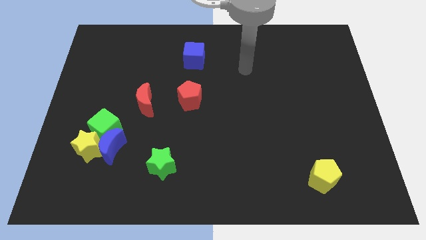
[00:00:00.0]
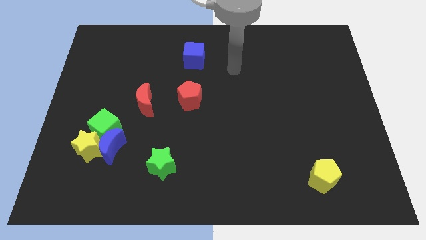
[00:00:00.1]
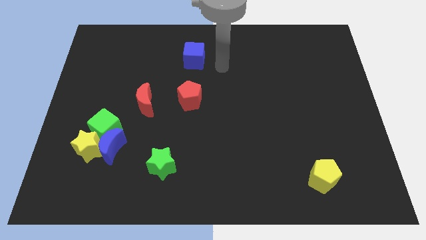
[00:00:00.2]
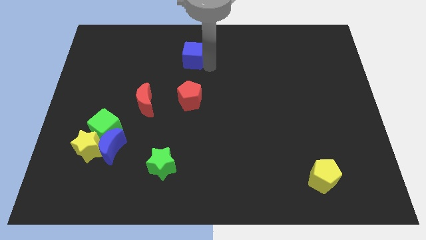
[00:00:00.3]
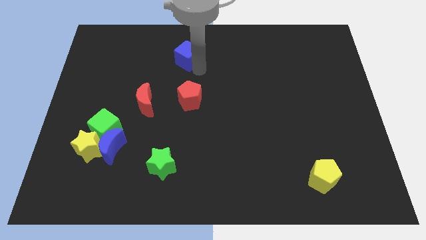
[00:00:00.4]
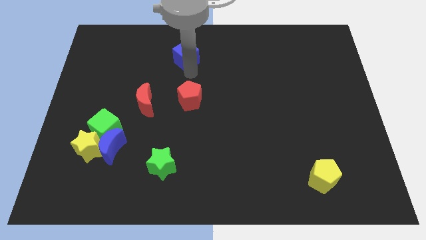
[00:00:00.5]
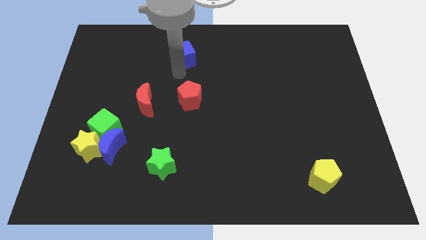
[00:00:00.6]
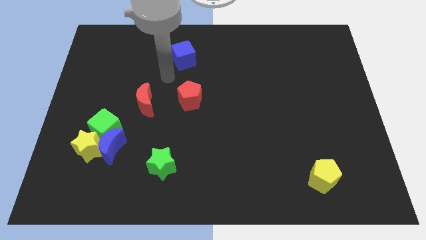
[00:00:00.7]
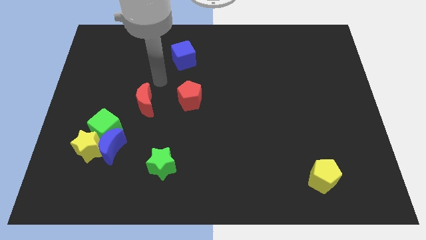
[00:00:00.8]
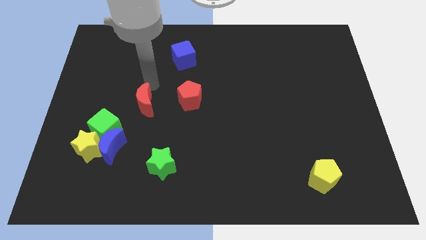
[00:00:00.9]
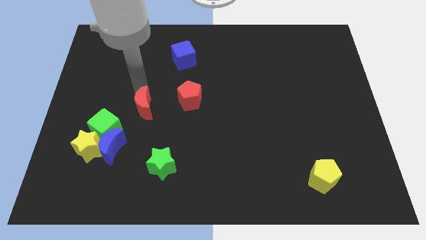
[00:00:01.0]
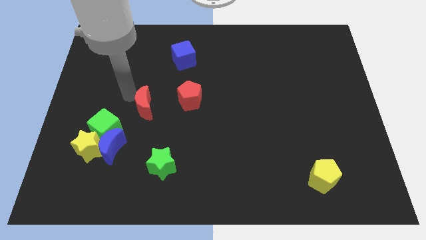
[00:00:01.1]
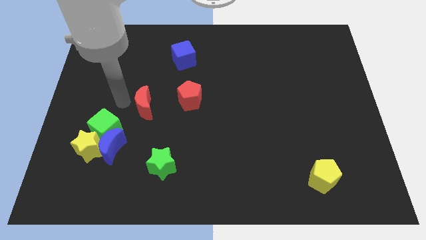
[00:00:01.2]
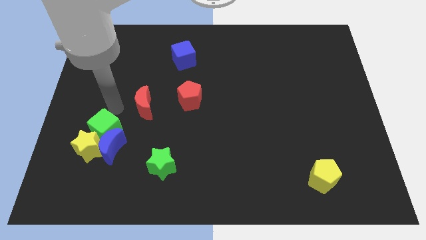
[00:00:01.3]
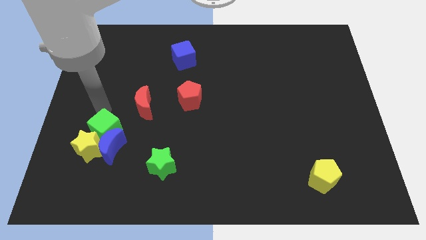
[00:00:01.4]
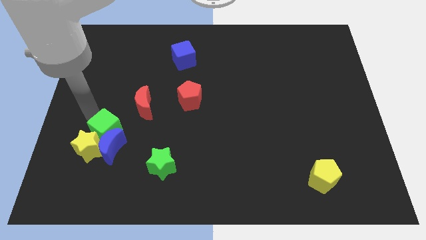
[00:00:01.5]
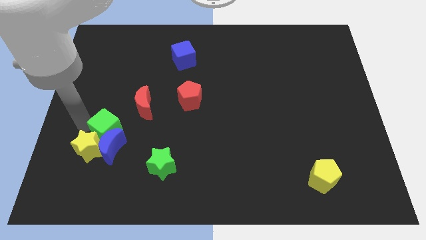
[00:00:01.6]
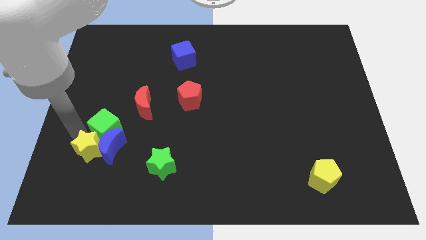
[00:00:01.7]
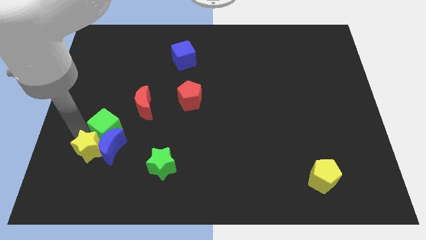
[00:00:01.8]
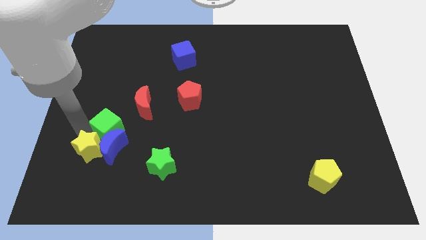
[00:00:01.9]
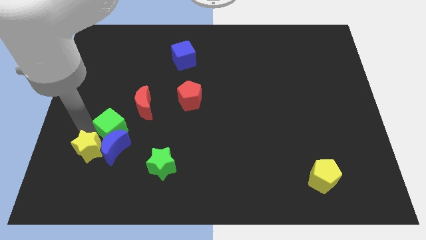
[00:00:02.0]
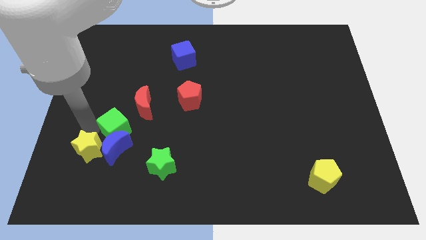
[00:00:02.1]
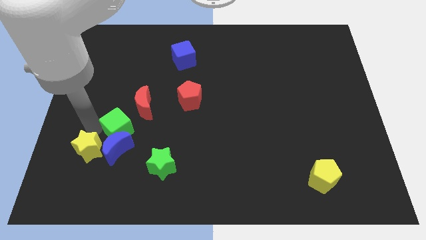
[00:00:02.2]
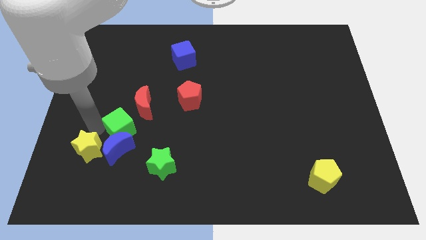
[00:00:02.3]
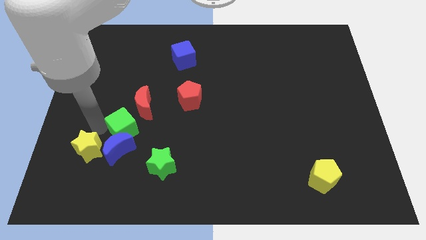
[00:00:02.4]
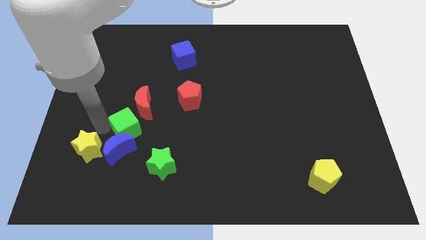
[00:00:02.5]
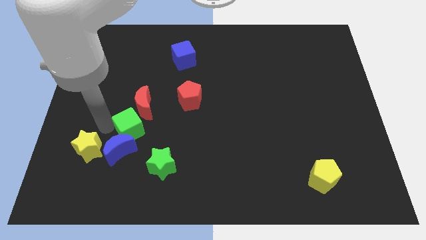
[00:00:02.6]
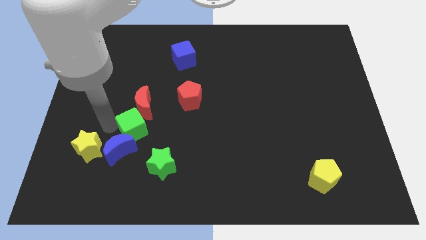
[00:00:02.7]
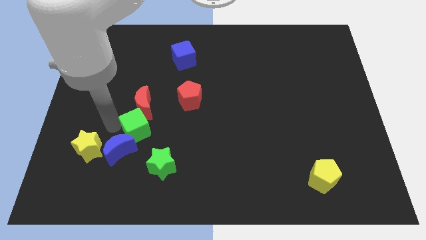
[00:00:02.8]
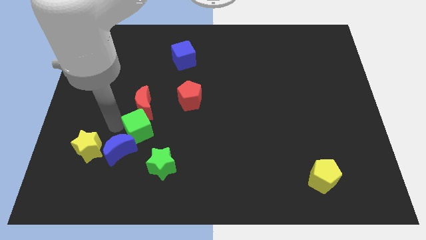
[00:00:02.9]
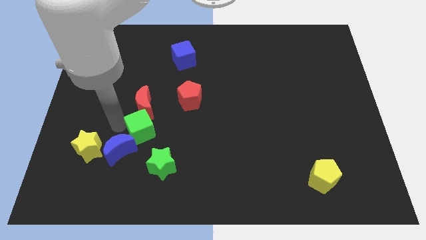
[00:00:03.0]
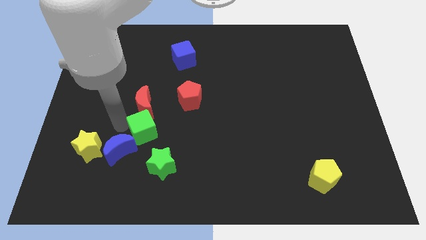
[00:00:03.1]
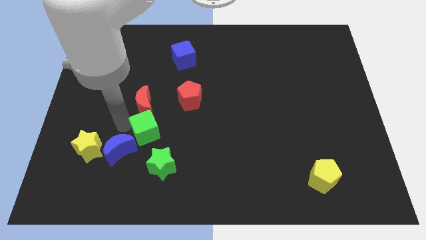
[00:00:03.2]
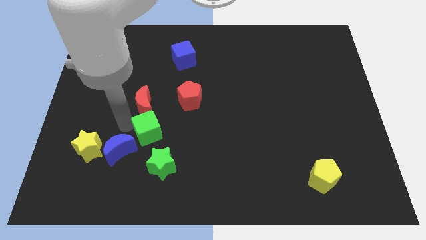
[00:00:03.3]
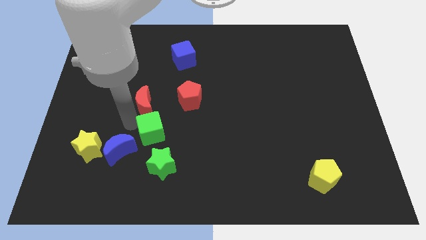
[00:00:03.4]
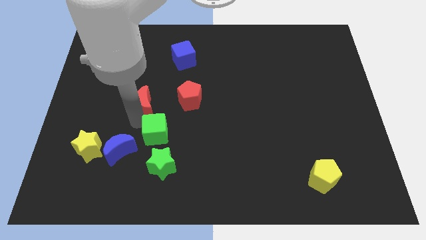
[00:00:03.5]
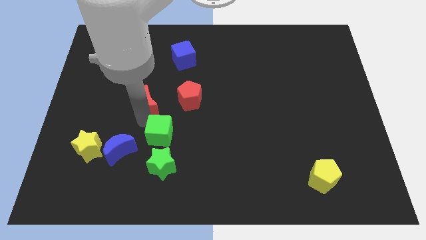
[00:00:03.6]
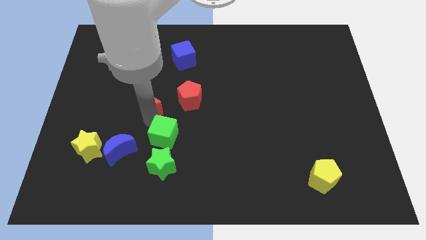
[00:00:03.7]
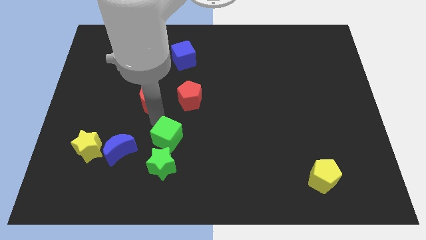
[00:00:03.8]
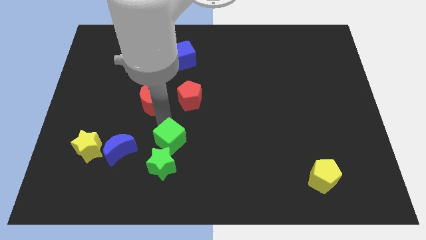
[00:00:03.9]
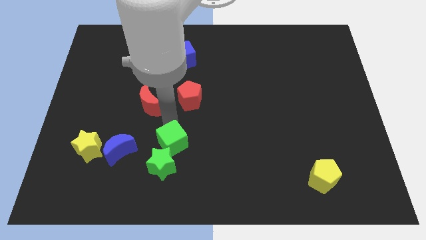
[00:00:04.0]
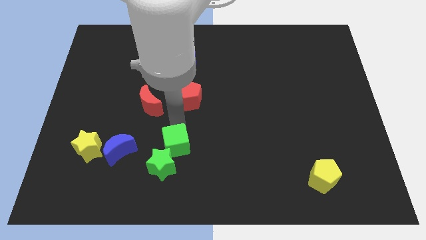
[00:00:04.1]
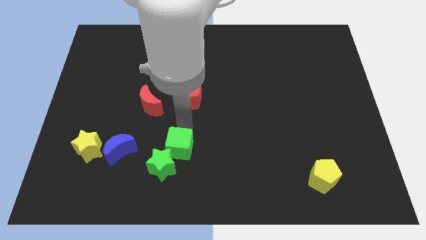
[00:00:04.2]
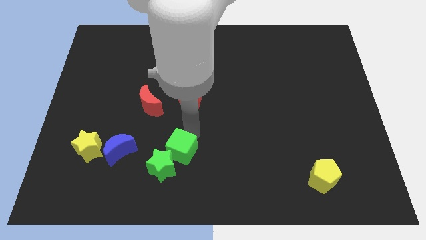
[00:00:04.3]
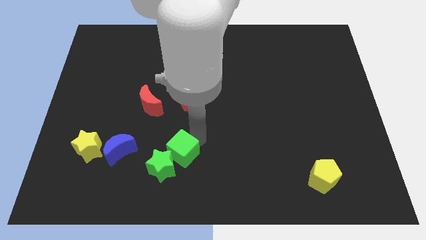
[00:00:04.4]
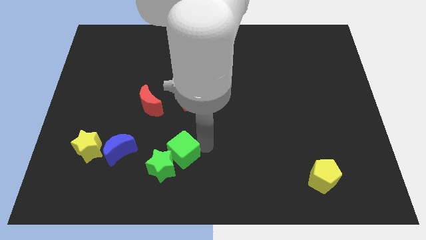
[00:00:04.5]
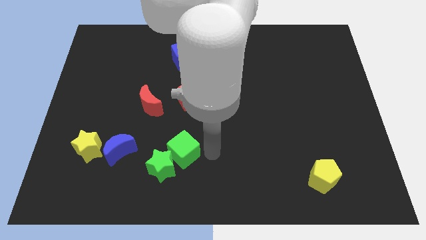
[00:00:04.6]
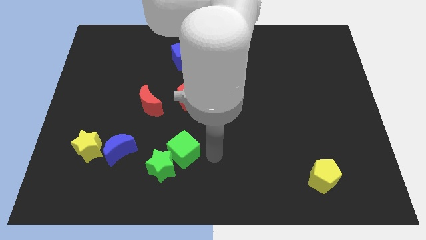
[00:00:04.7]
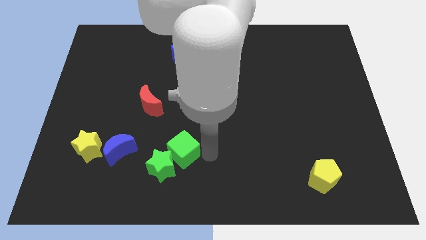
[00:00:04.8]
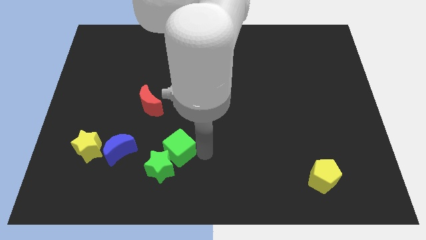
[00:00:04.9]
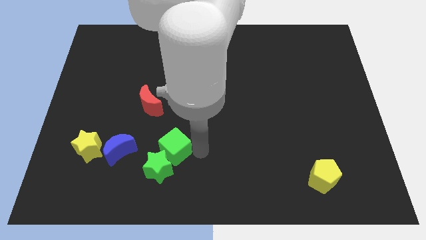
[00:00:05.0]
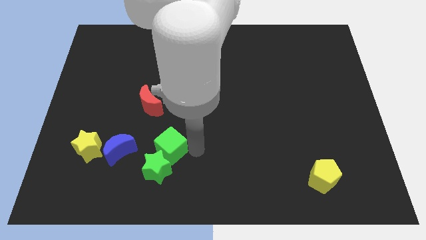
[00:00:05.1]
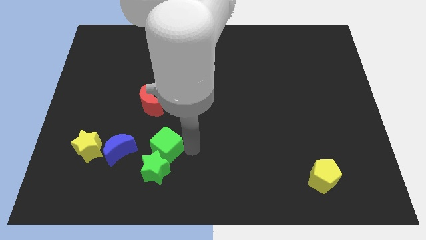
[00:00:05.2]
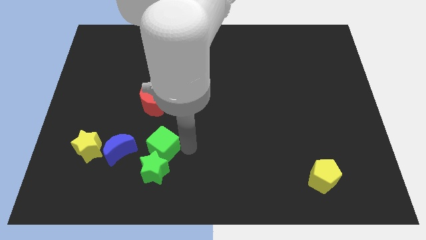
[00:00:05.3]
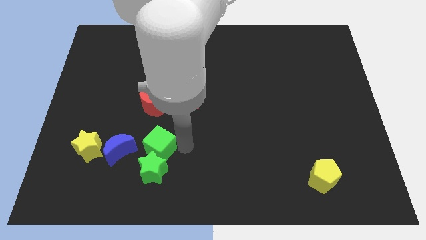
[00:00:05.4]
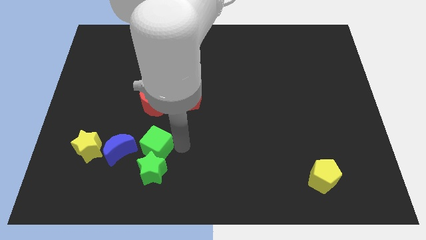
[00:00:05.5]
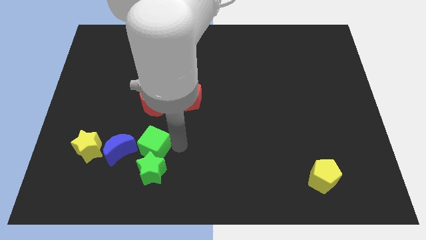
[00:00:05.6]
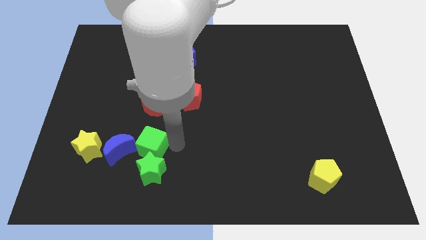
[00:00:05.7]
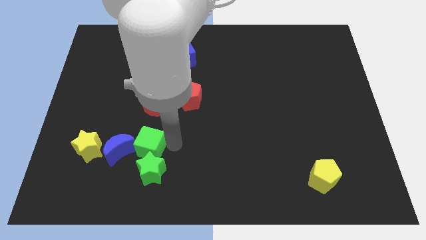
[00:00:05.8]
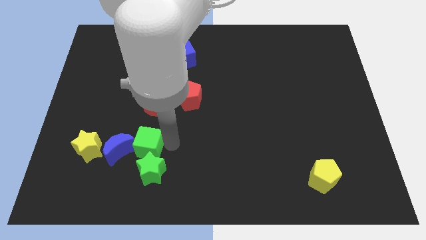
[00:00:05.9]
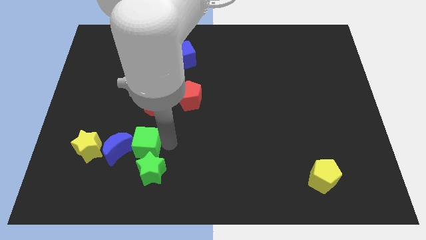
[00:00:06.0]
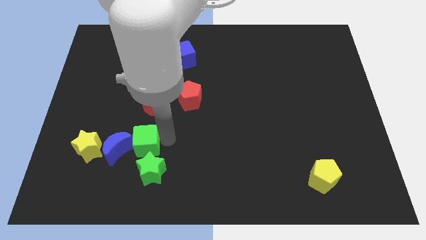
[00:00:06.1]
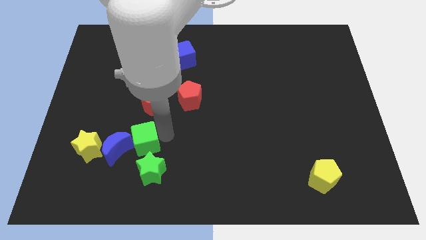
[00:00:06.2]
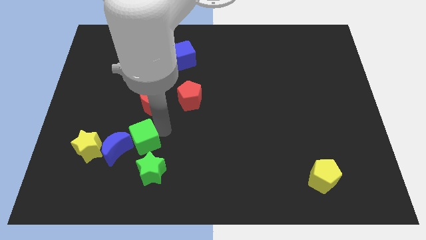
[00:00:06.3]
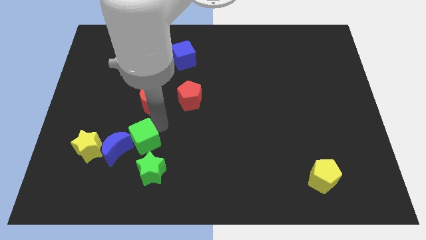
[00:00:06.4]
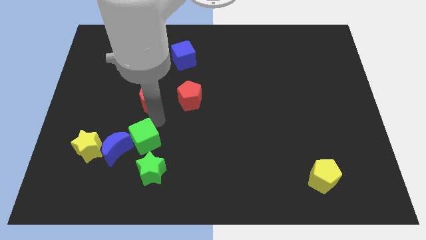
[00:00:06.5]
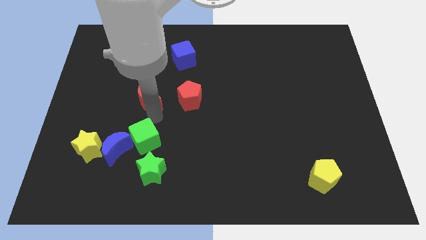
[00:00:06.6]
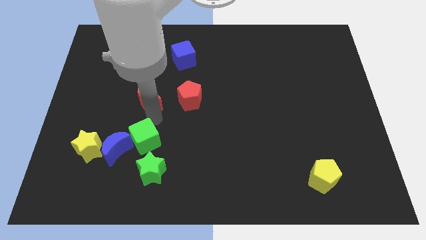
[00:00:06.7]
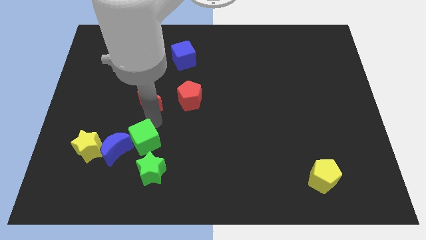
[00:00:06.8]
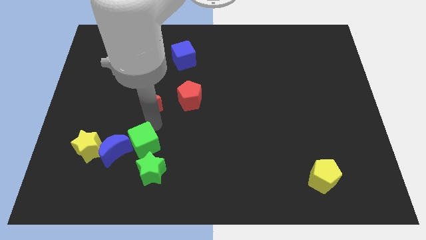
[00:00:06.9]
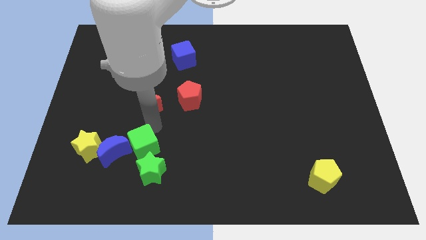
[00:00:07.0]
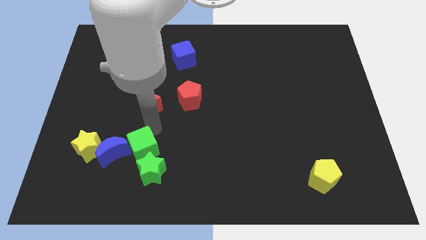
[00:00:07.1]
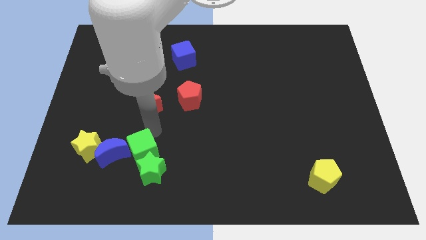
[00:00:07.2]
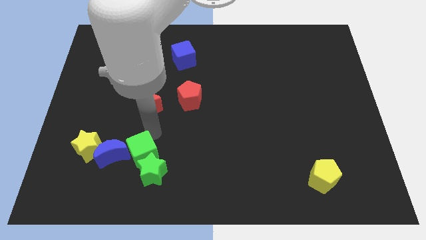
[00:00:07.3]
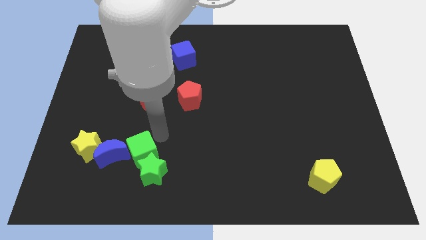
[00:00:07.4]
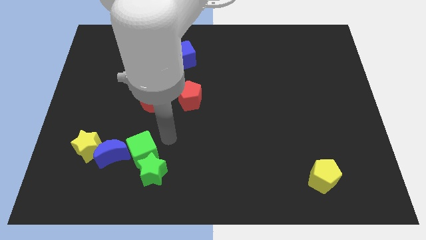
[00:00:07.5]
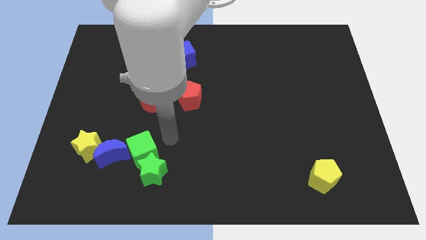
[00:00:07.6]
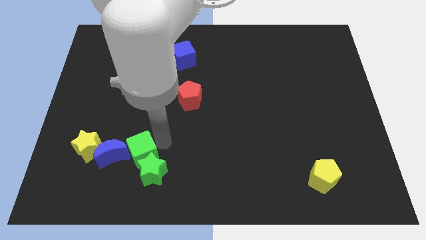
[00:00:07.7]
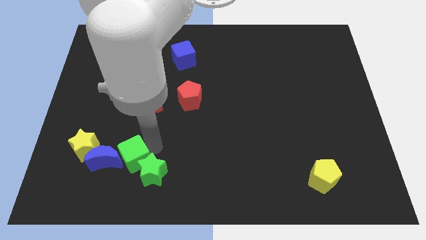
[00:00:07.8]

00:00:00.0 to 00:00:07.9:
put the green cube just left of the green star
